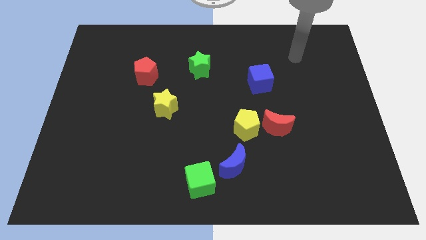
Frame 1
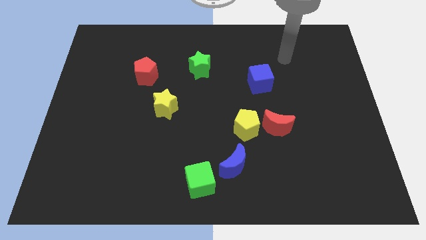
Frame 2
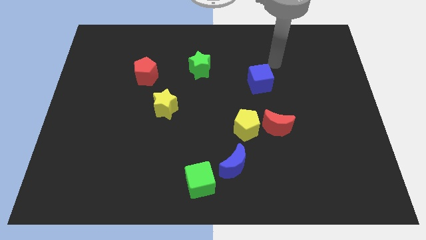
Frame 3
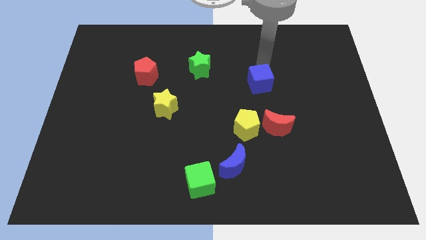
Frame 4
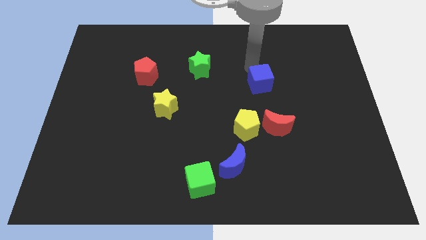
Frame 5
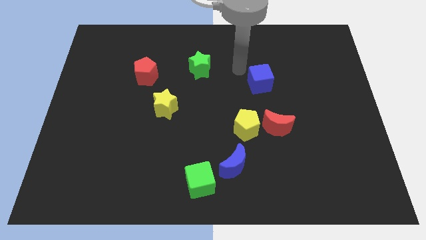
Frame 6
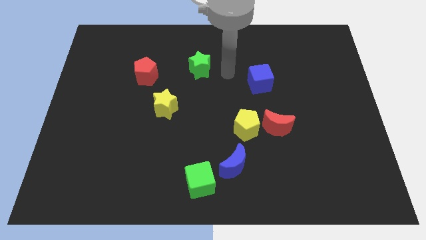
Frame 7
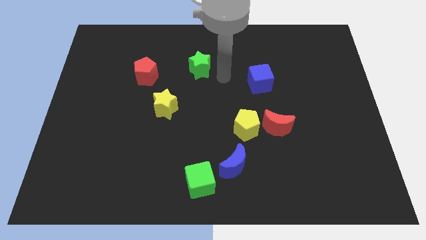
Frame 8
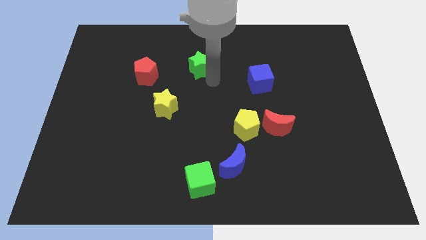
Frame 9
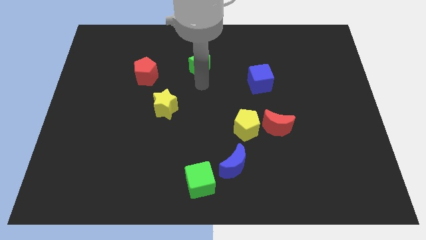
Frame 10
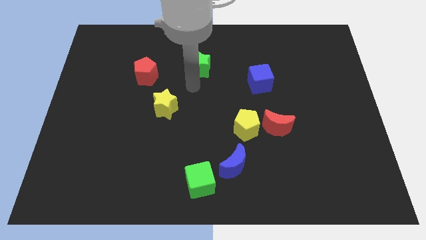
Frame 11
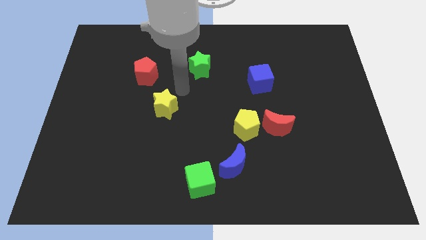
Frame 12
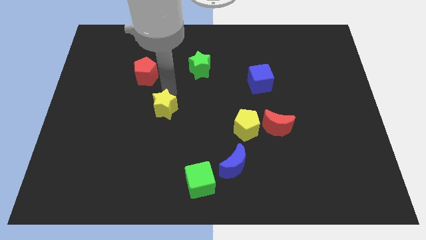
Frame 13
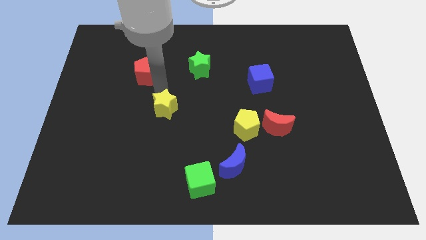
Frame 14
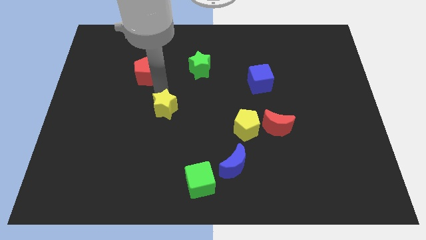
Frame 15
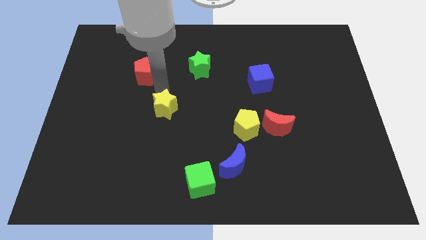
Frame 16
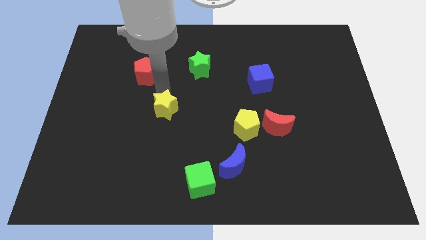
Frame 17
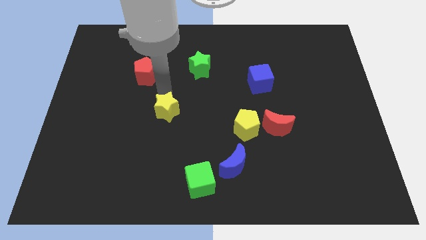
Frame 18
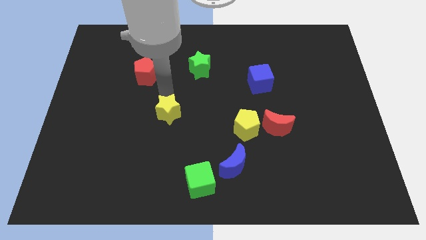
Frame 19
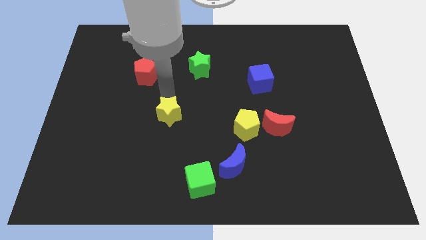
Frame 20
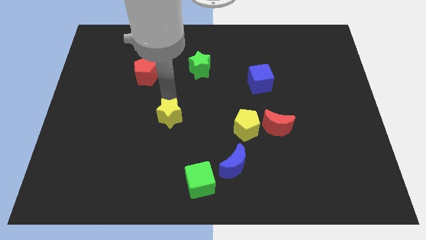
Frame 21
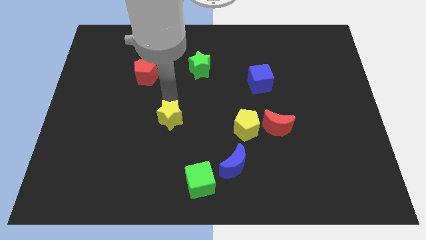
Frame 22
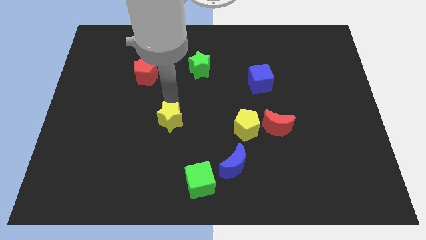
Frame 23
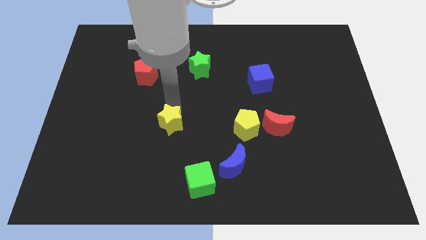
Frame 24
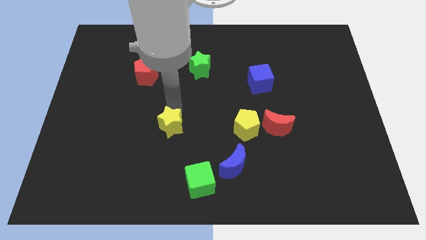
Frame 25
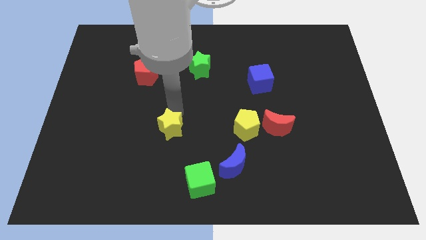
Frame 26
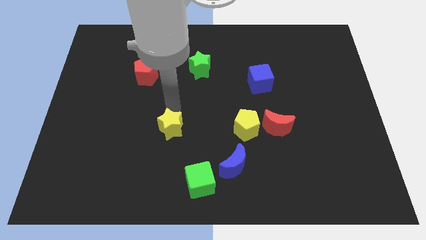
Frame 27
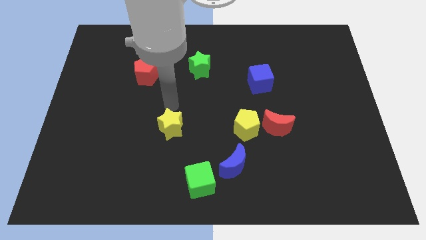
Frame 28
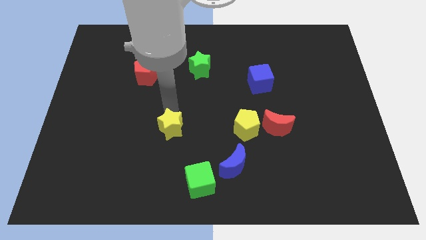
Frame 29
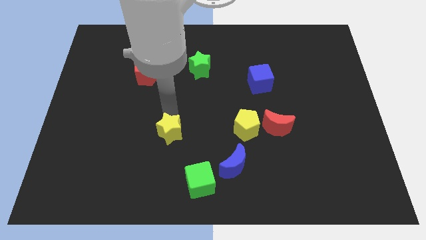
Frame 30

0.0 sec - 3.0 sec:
move the yellow star a little bit downwards

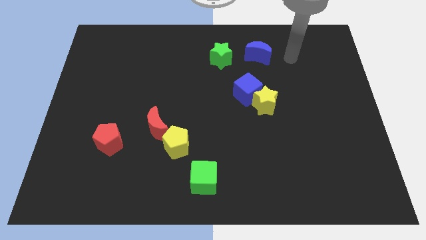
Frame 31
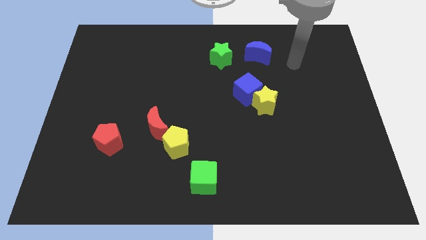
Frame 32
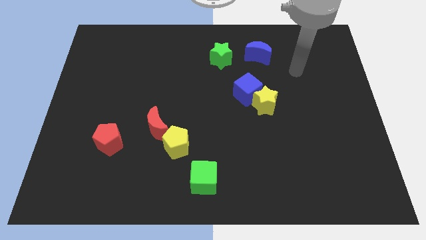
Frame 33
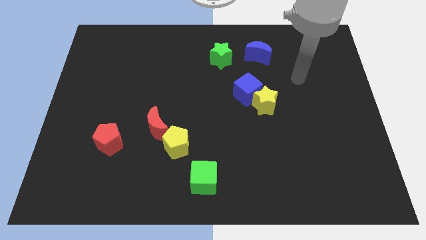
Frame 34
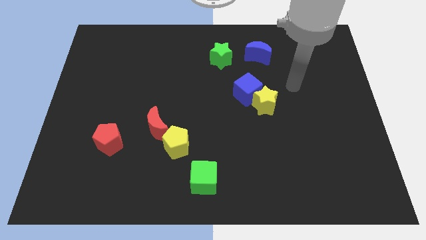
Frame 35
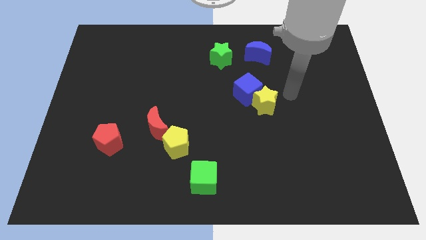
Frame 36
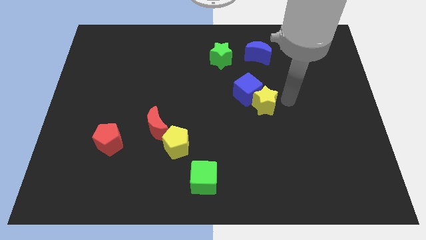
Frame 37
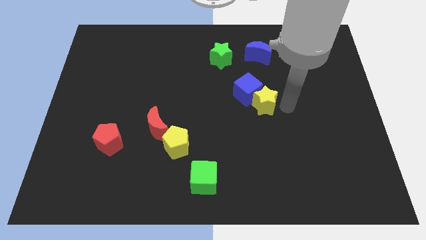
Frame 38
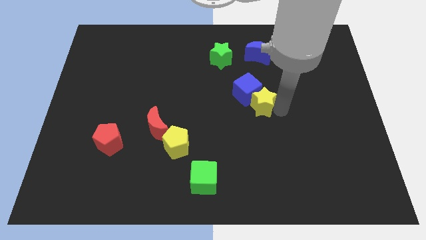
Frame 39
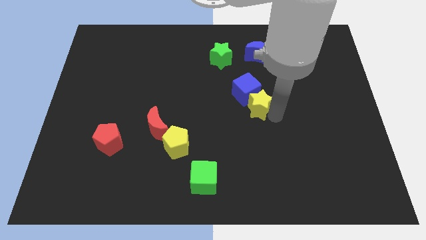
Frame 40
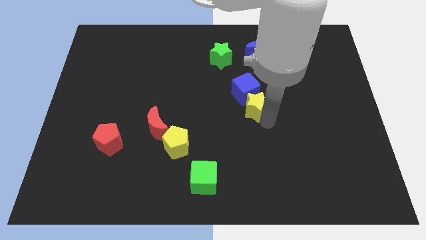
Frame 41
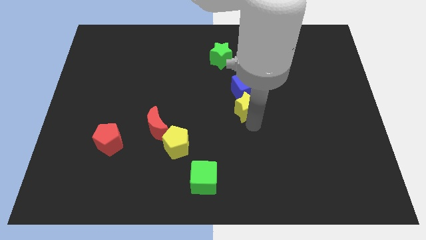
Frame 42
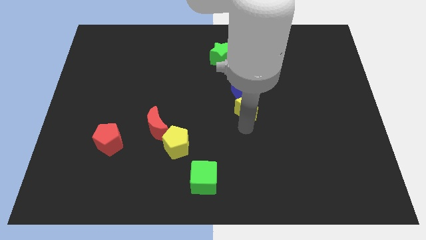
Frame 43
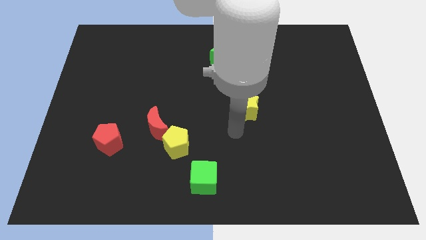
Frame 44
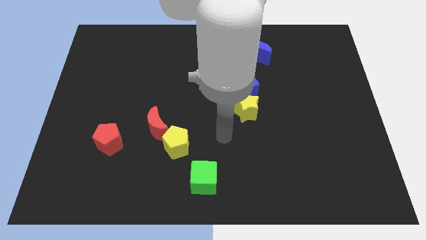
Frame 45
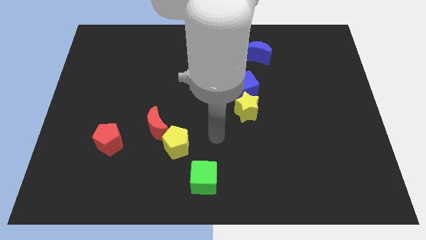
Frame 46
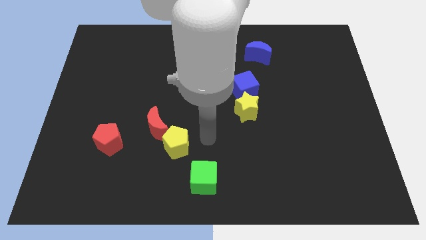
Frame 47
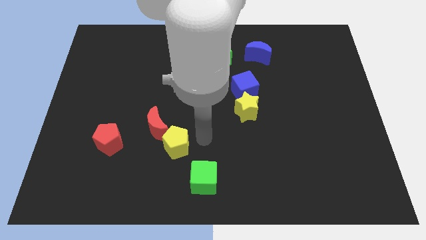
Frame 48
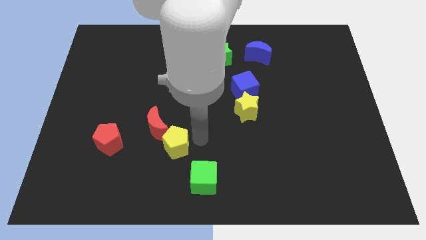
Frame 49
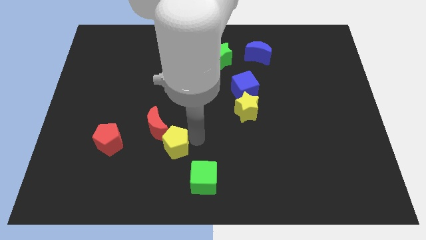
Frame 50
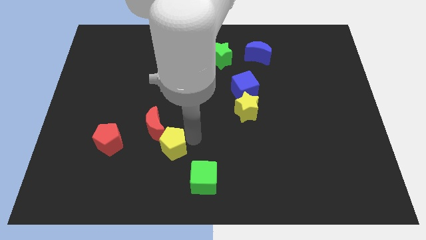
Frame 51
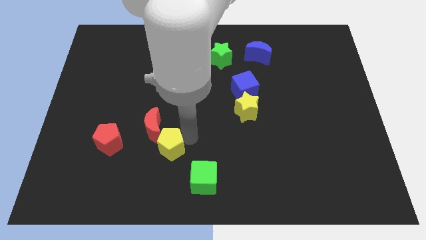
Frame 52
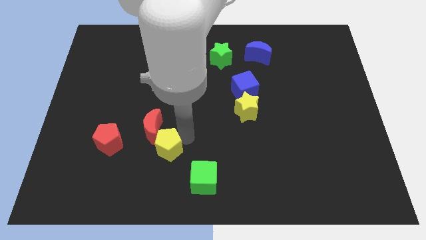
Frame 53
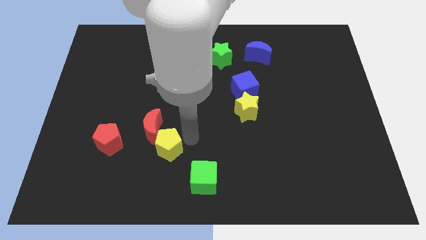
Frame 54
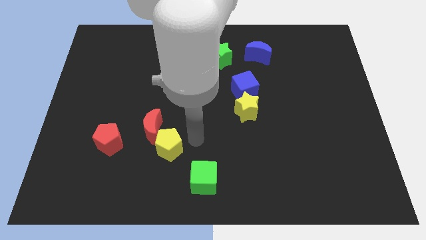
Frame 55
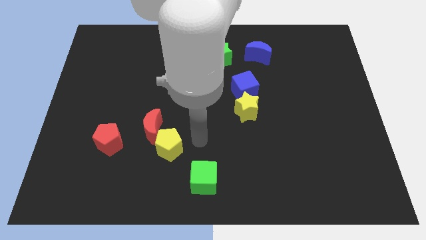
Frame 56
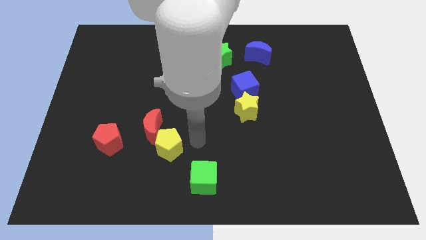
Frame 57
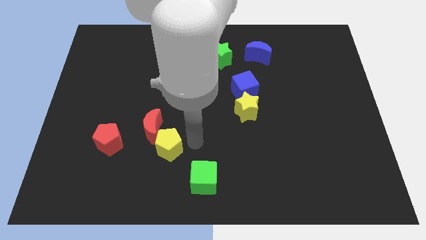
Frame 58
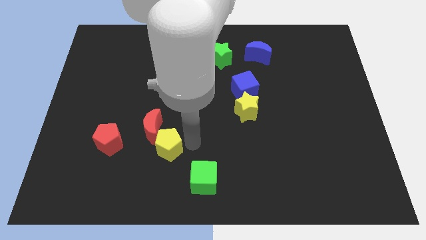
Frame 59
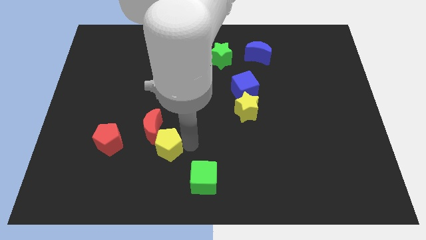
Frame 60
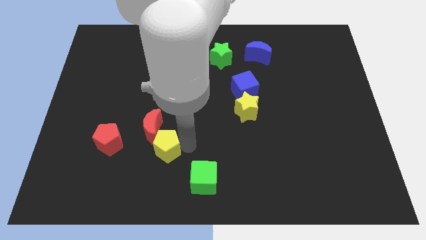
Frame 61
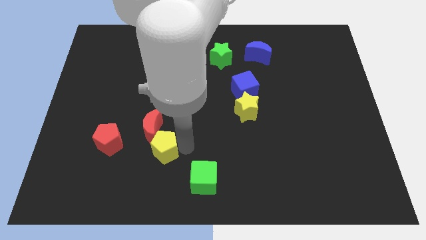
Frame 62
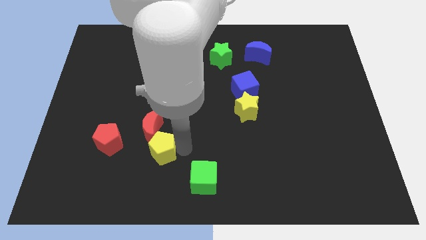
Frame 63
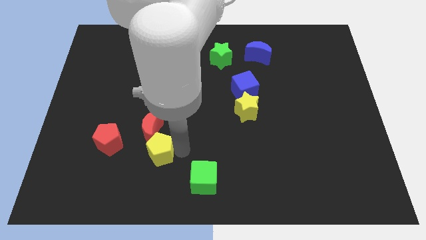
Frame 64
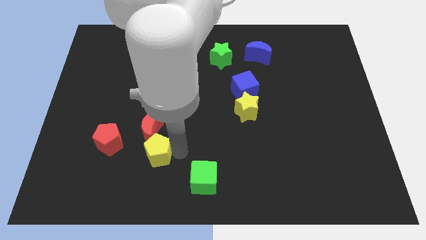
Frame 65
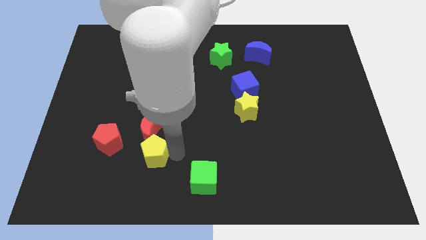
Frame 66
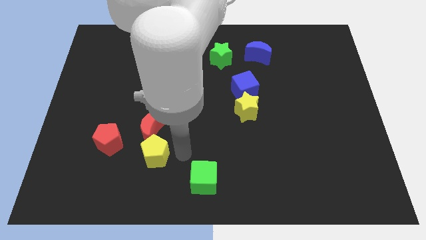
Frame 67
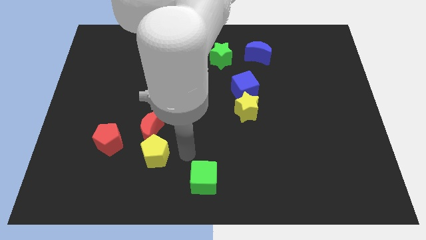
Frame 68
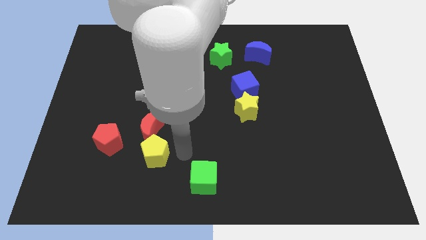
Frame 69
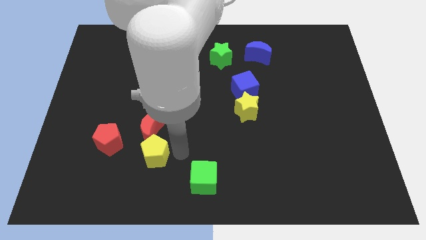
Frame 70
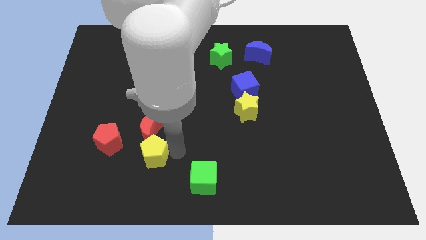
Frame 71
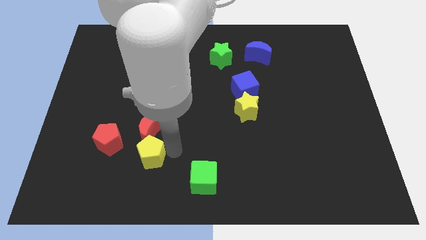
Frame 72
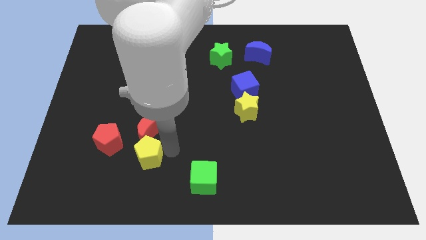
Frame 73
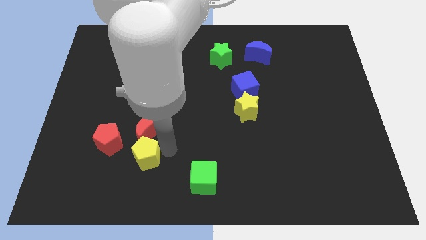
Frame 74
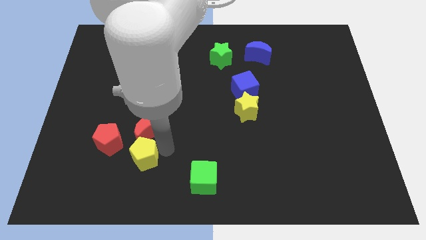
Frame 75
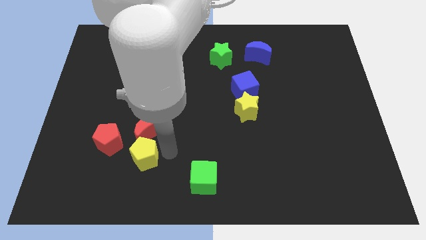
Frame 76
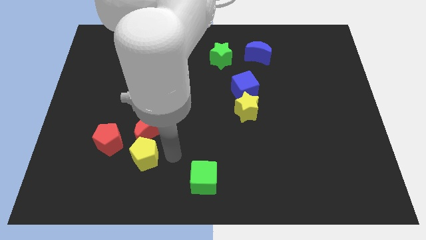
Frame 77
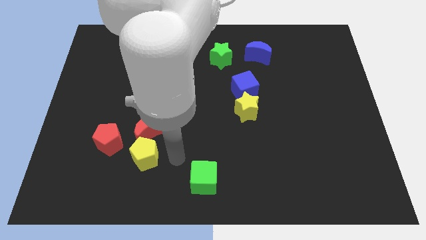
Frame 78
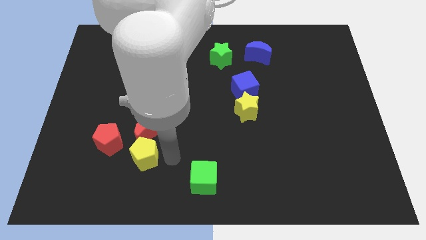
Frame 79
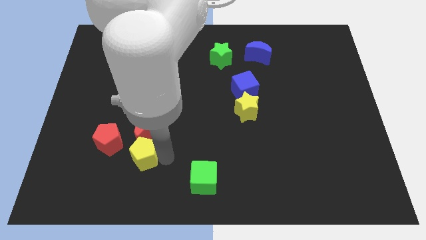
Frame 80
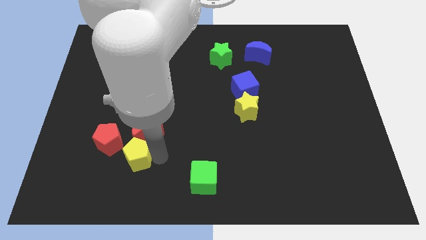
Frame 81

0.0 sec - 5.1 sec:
push the yellow pentagon left a little bit
